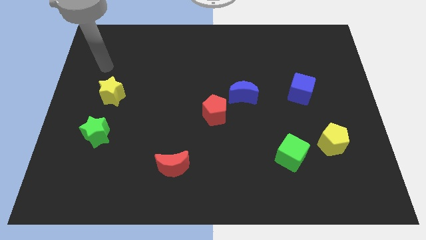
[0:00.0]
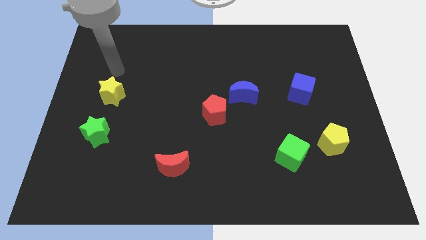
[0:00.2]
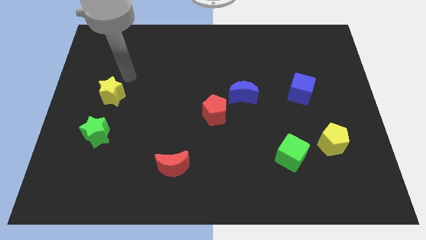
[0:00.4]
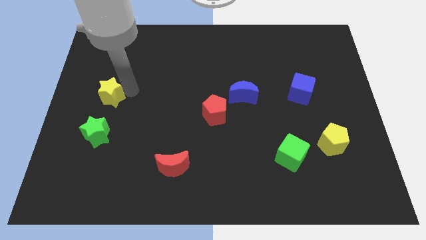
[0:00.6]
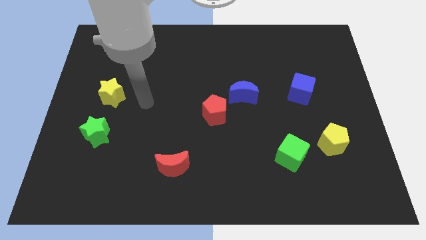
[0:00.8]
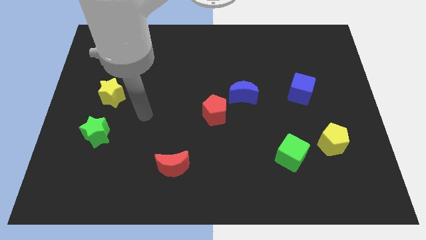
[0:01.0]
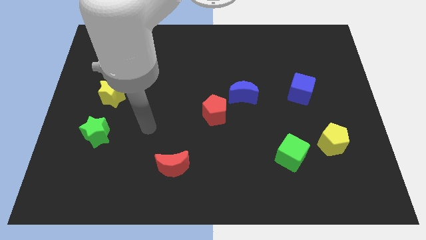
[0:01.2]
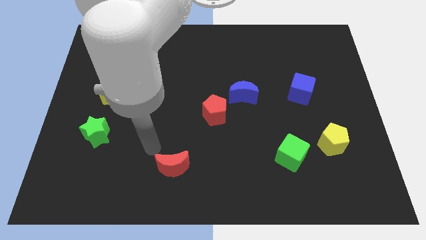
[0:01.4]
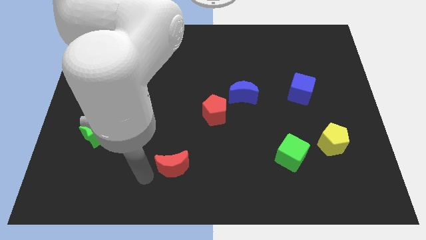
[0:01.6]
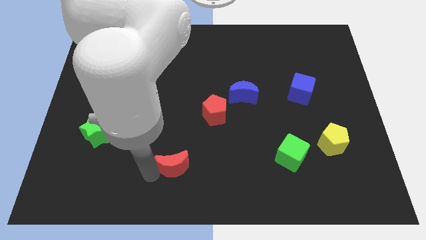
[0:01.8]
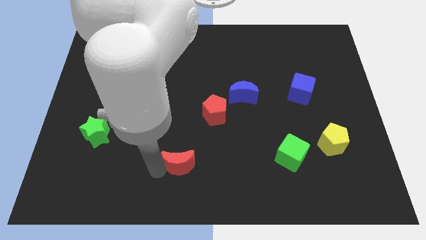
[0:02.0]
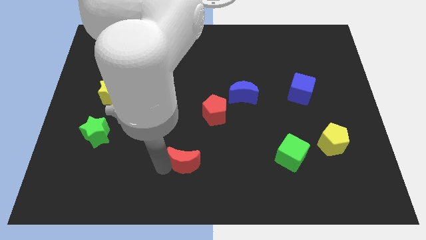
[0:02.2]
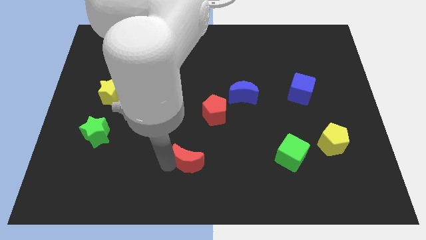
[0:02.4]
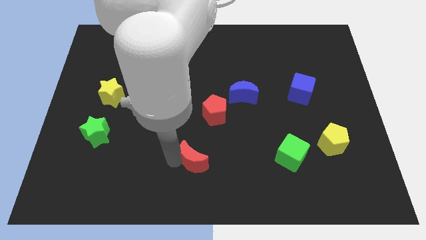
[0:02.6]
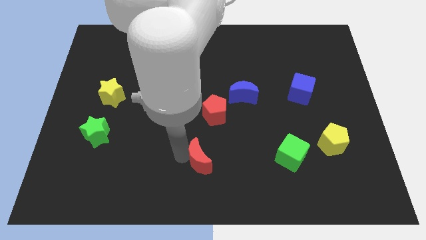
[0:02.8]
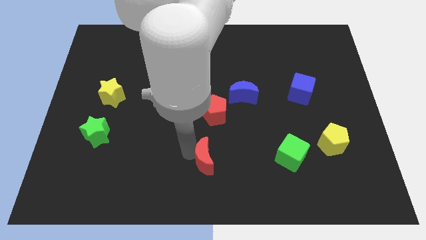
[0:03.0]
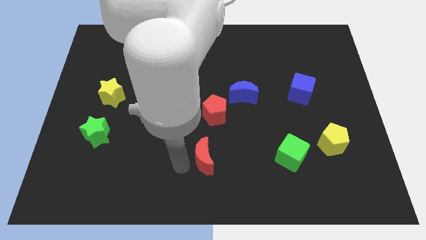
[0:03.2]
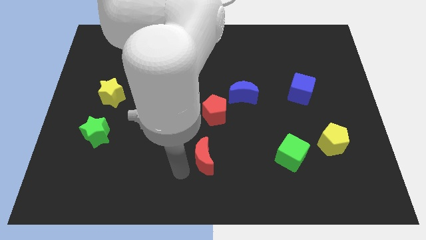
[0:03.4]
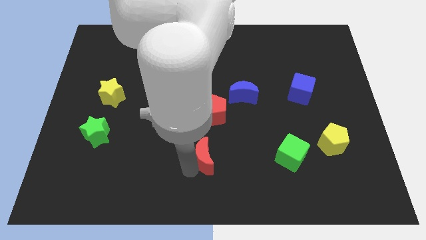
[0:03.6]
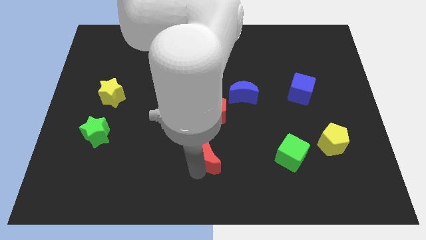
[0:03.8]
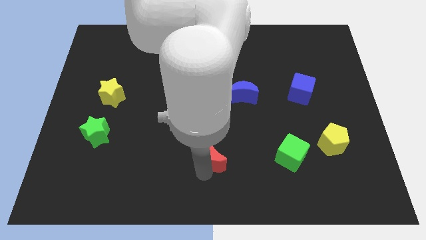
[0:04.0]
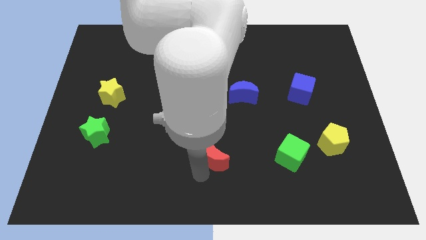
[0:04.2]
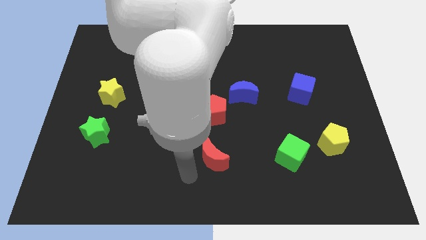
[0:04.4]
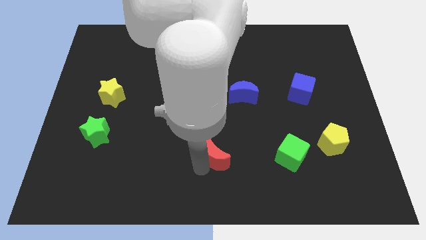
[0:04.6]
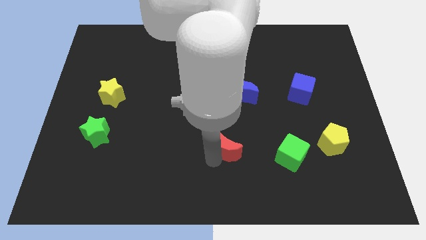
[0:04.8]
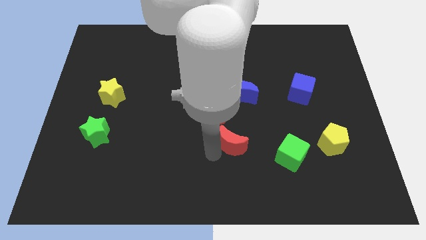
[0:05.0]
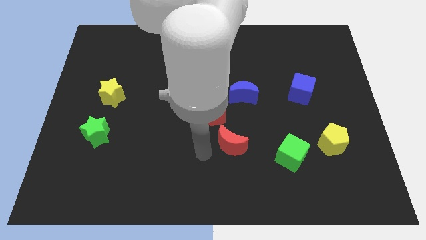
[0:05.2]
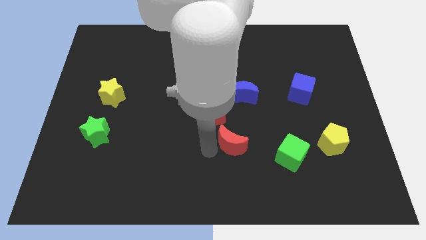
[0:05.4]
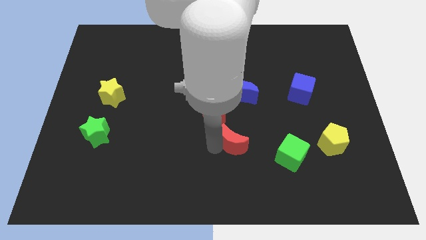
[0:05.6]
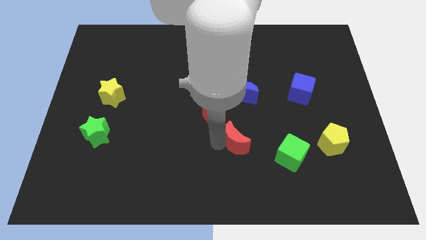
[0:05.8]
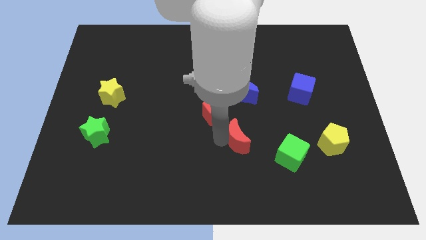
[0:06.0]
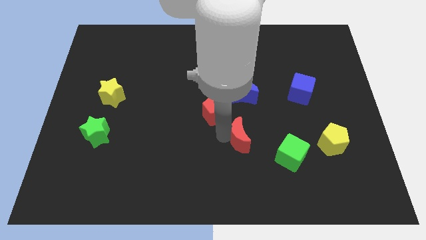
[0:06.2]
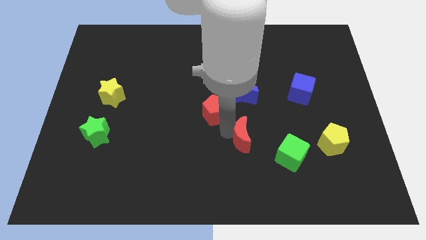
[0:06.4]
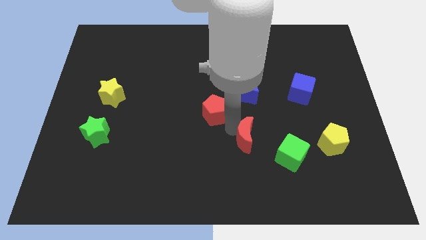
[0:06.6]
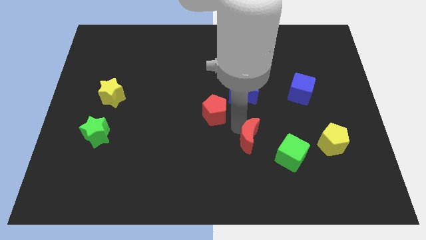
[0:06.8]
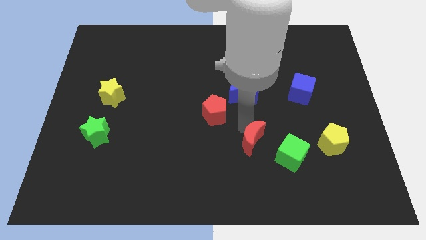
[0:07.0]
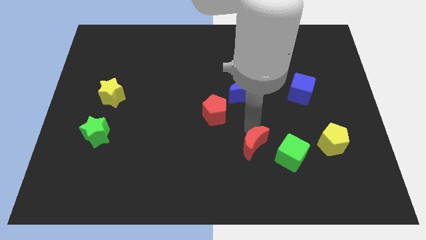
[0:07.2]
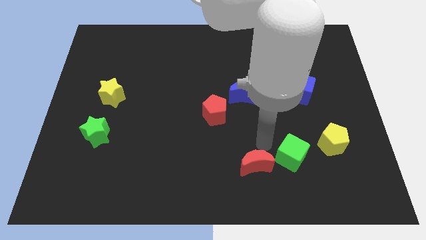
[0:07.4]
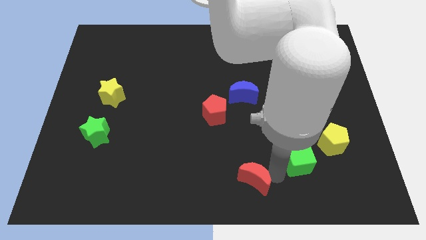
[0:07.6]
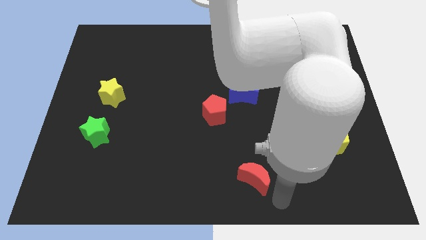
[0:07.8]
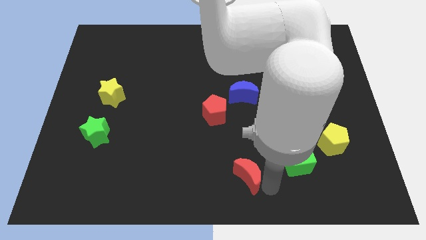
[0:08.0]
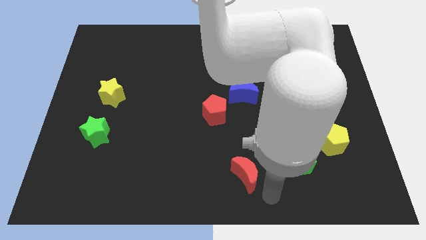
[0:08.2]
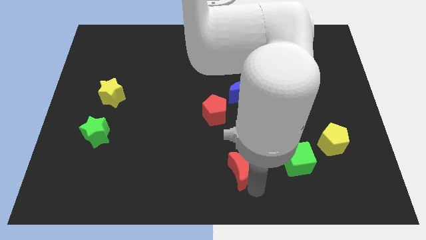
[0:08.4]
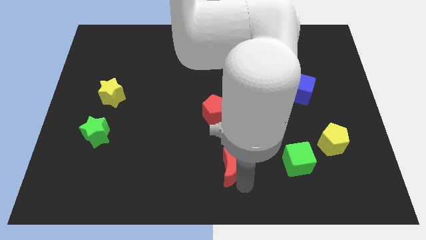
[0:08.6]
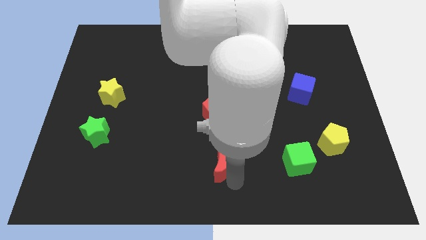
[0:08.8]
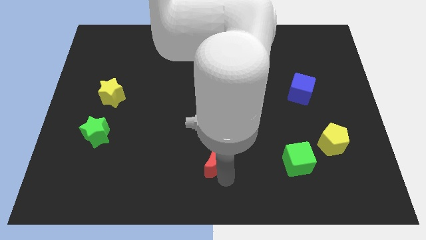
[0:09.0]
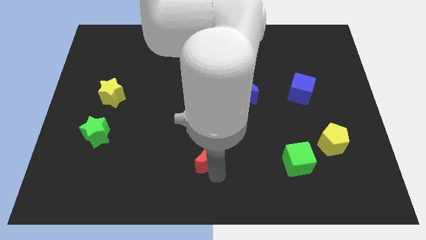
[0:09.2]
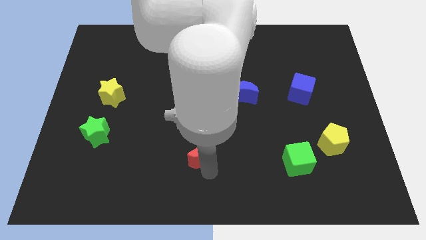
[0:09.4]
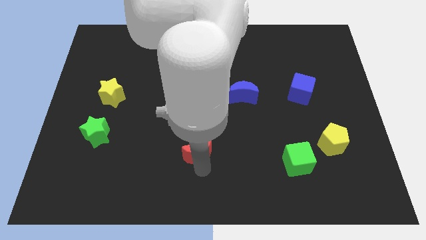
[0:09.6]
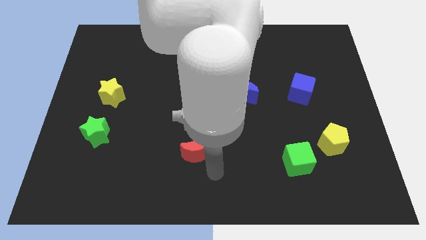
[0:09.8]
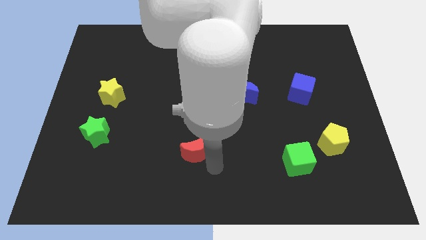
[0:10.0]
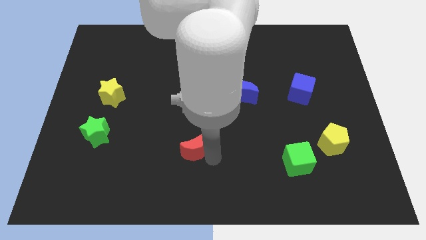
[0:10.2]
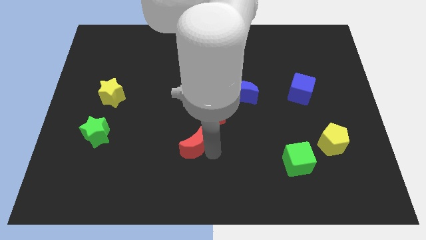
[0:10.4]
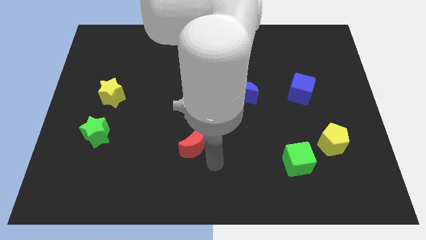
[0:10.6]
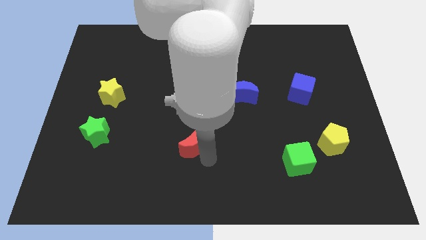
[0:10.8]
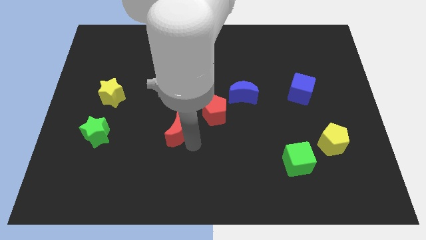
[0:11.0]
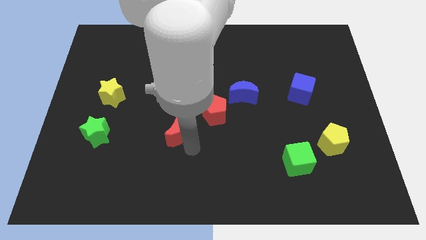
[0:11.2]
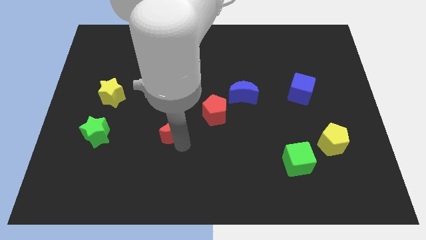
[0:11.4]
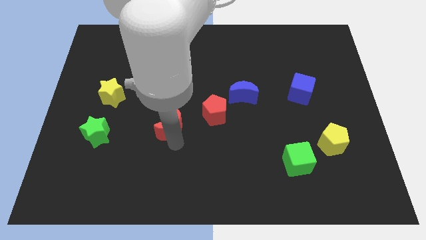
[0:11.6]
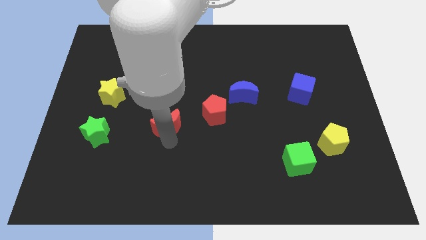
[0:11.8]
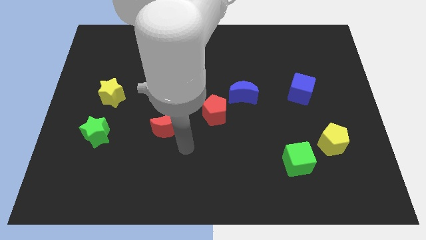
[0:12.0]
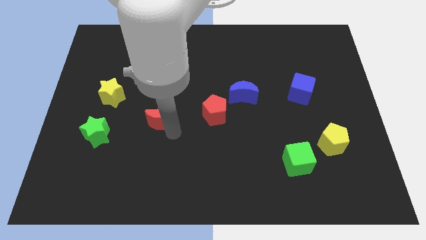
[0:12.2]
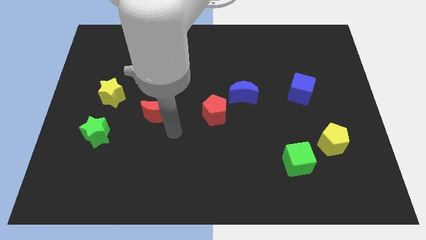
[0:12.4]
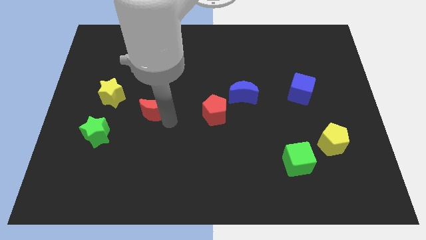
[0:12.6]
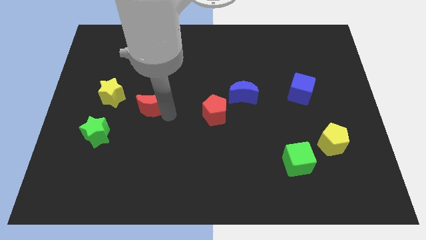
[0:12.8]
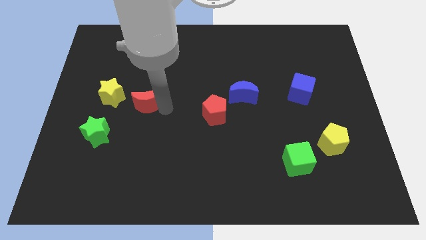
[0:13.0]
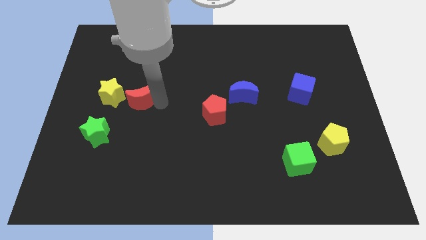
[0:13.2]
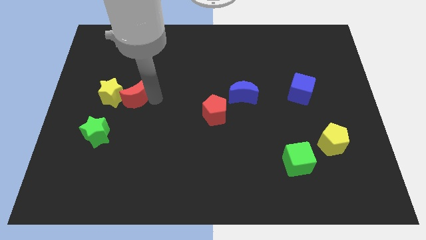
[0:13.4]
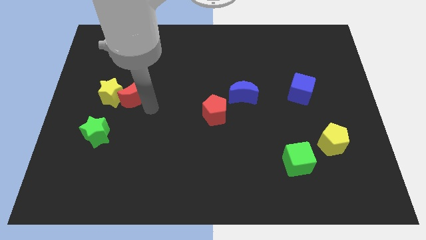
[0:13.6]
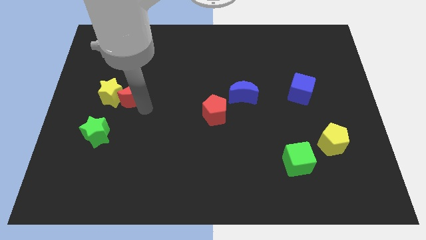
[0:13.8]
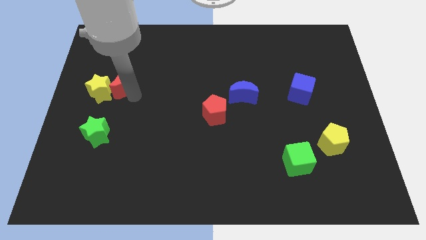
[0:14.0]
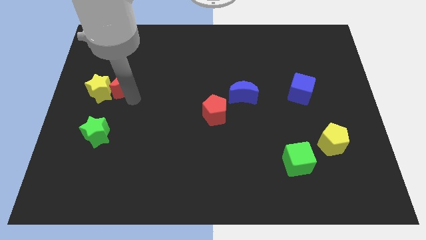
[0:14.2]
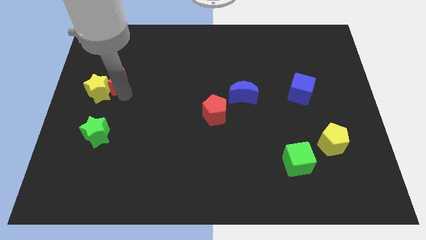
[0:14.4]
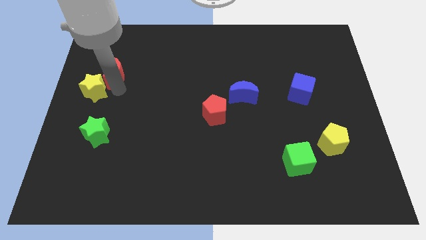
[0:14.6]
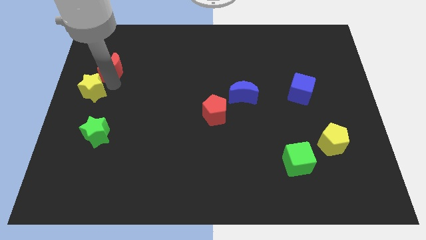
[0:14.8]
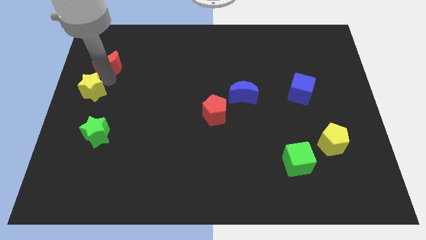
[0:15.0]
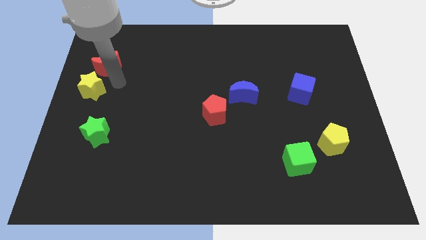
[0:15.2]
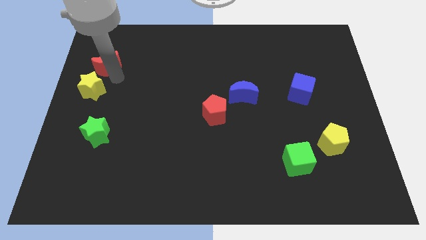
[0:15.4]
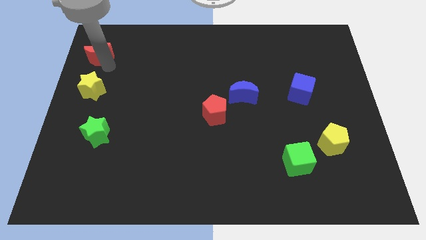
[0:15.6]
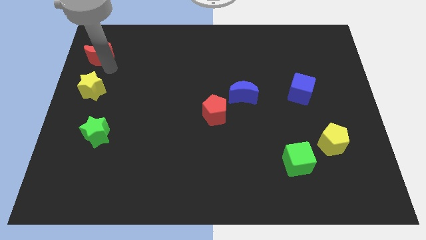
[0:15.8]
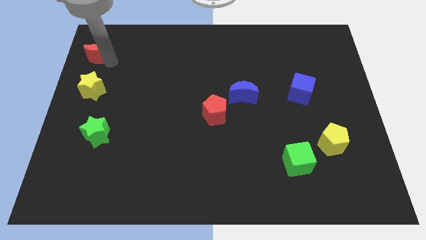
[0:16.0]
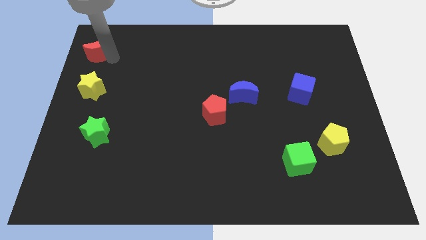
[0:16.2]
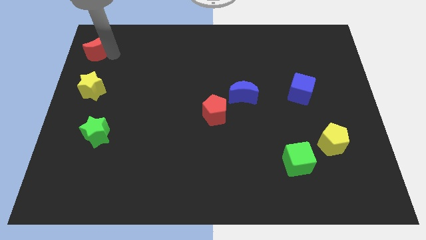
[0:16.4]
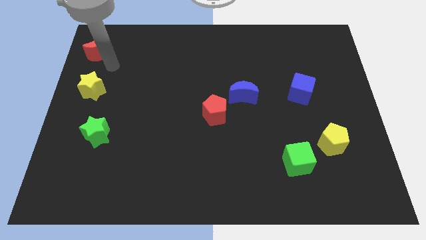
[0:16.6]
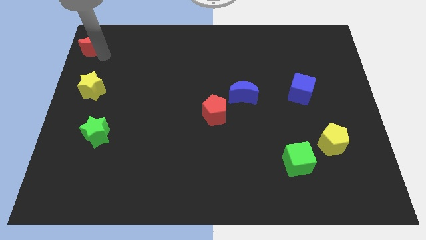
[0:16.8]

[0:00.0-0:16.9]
slide the red moon to the upper left corner
